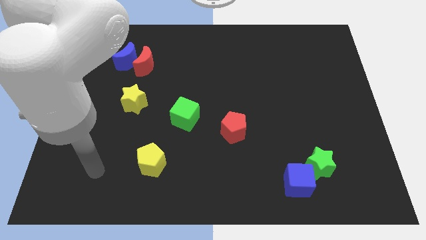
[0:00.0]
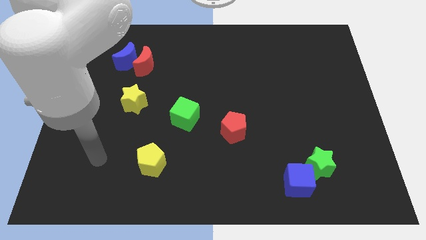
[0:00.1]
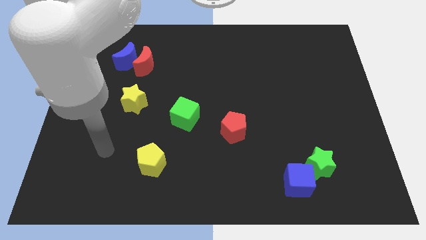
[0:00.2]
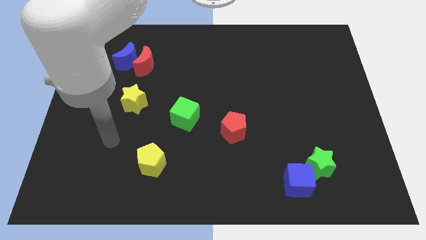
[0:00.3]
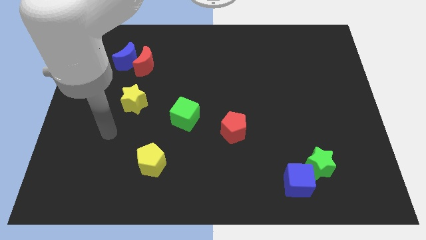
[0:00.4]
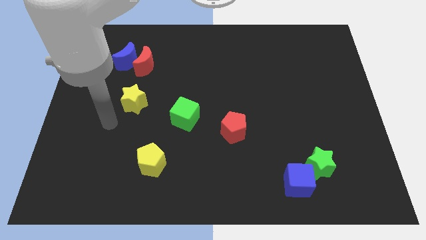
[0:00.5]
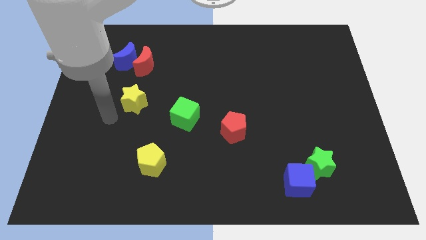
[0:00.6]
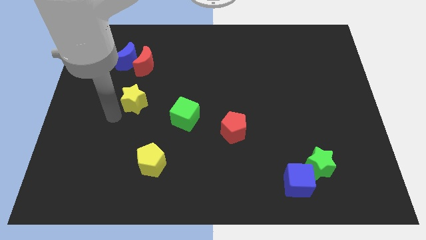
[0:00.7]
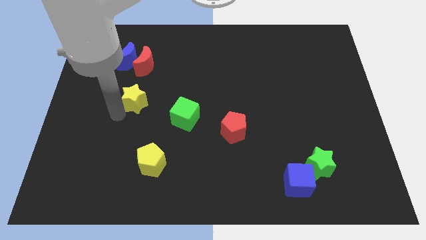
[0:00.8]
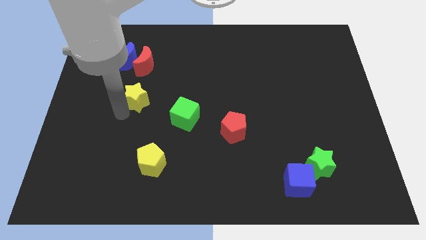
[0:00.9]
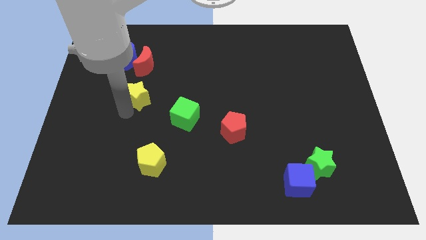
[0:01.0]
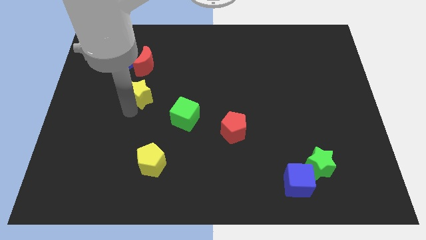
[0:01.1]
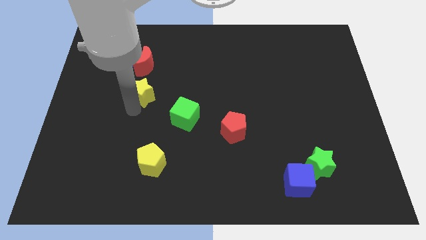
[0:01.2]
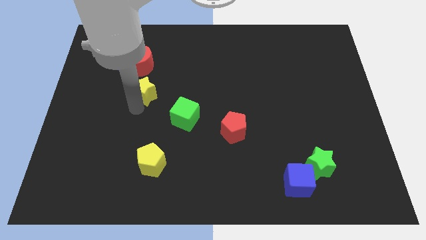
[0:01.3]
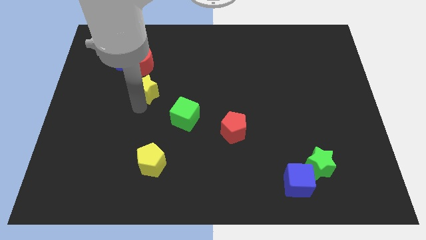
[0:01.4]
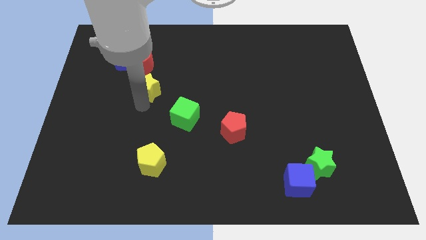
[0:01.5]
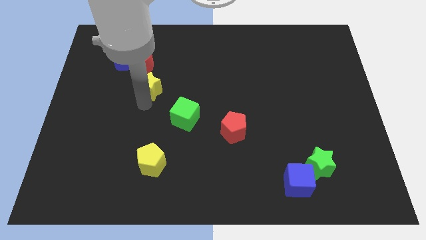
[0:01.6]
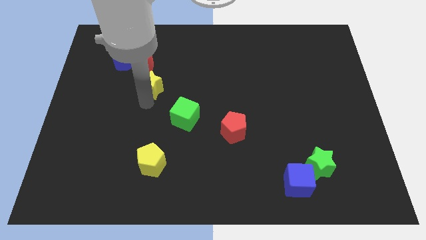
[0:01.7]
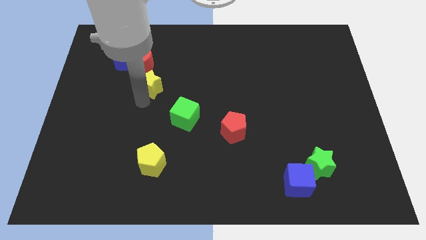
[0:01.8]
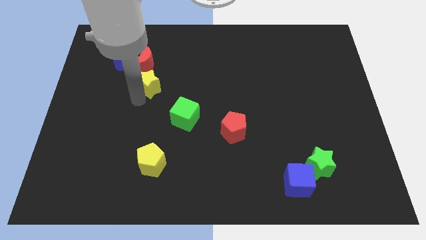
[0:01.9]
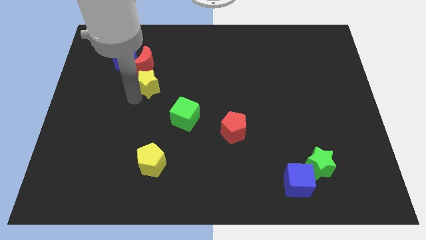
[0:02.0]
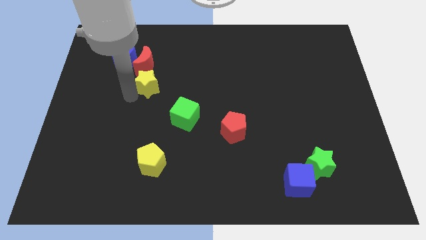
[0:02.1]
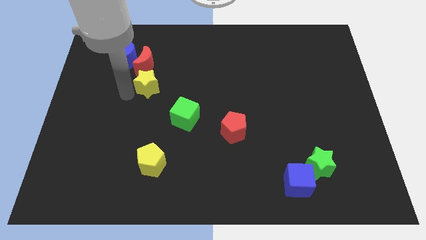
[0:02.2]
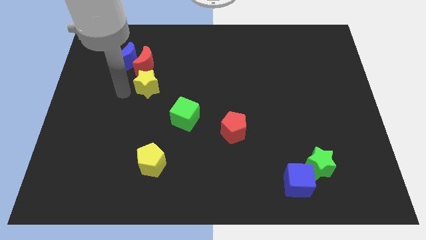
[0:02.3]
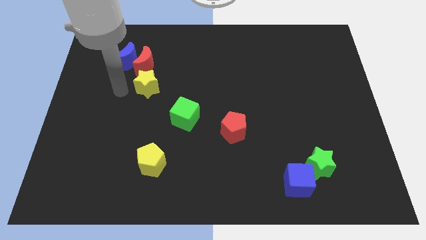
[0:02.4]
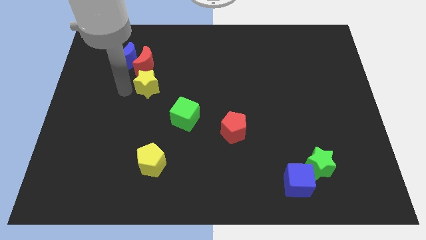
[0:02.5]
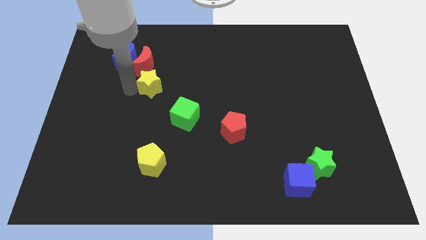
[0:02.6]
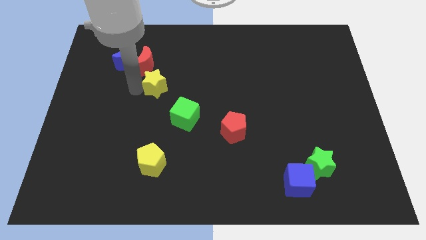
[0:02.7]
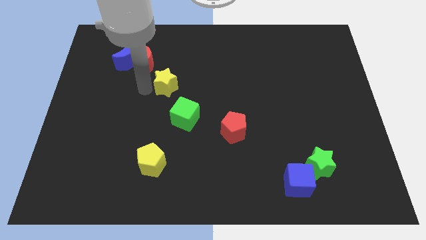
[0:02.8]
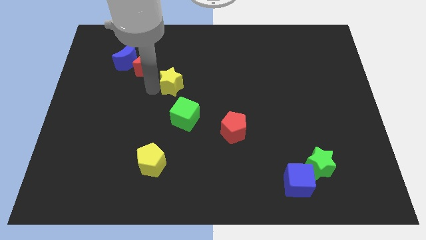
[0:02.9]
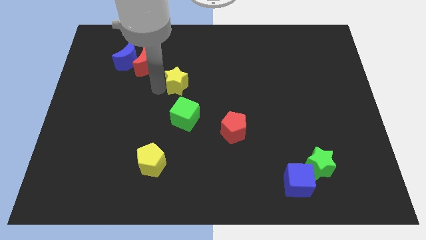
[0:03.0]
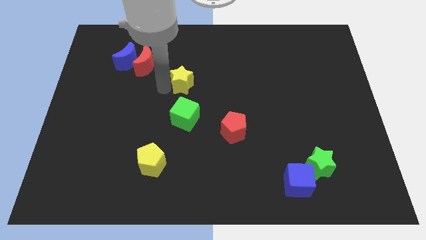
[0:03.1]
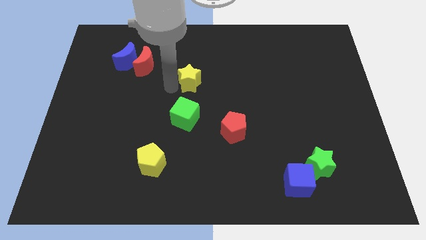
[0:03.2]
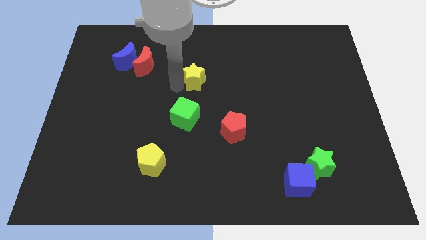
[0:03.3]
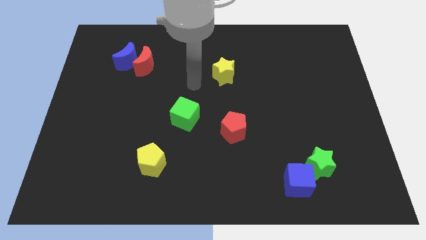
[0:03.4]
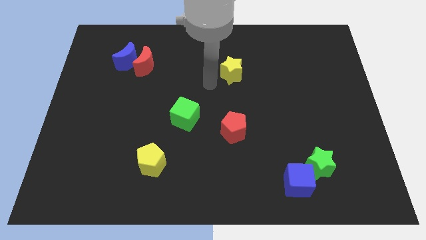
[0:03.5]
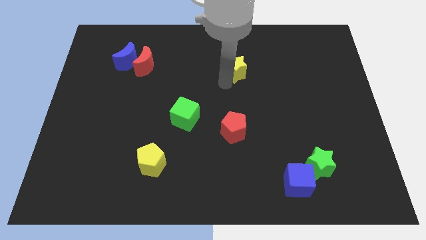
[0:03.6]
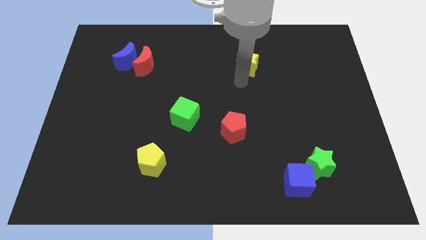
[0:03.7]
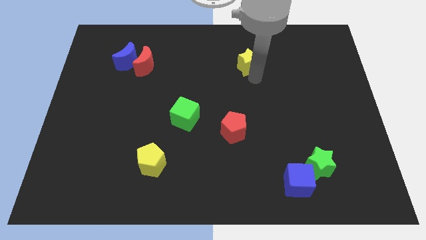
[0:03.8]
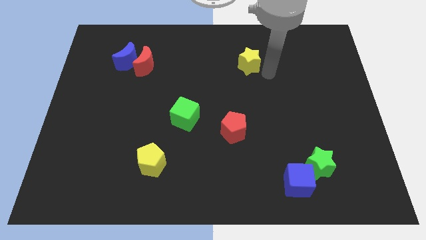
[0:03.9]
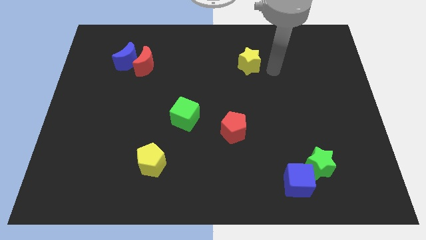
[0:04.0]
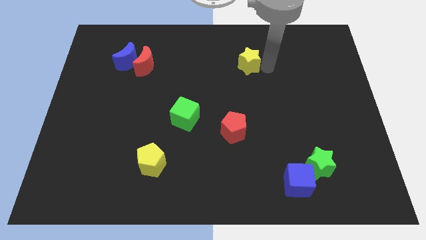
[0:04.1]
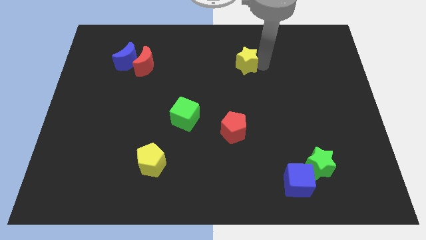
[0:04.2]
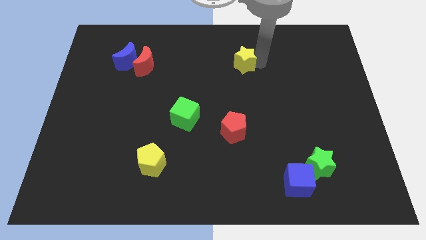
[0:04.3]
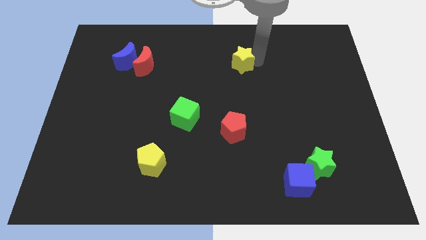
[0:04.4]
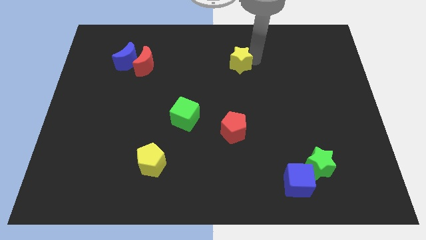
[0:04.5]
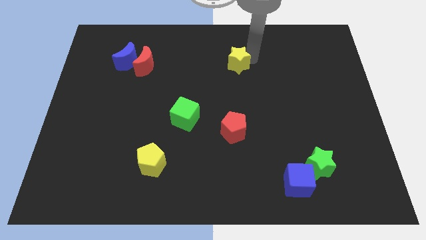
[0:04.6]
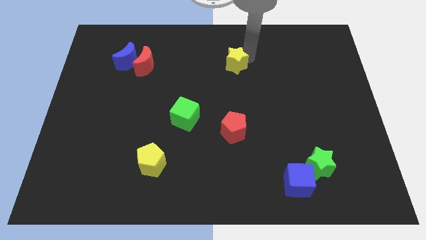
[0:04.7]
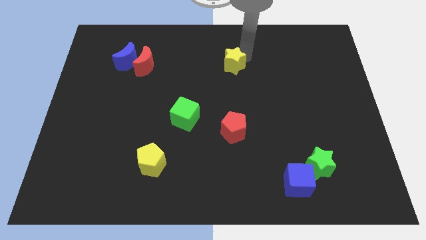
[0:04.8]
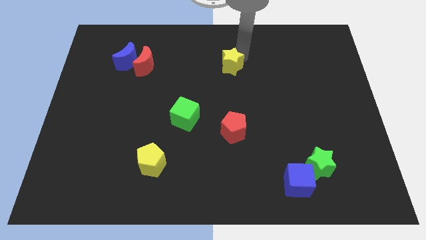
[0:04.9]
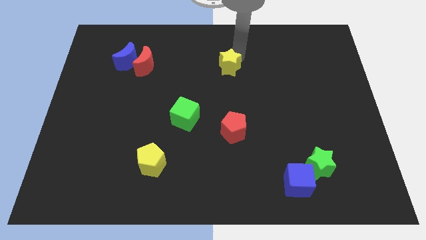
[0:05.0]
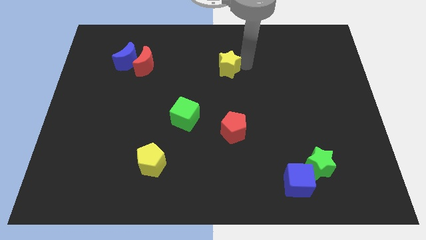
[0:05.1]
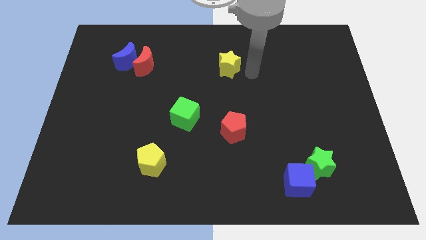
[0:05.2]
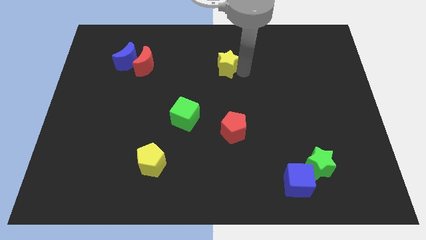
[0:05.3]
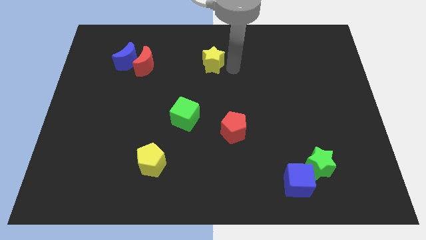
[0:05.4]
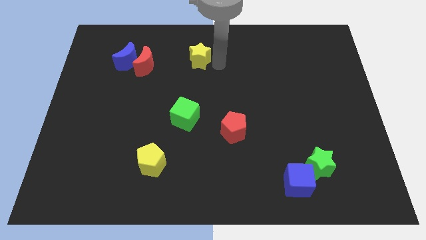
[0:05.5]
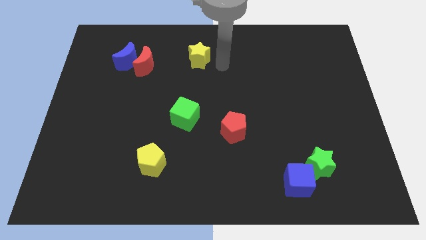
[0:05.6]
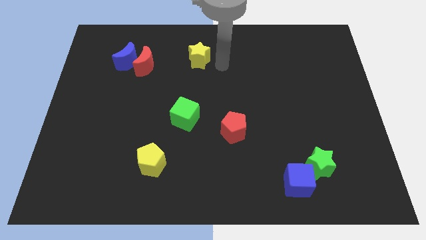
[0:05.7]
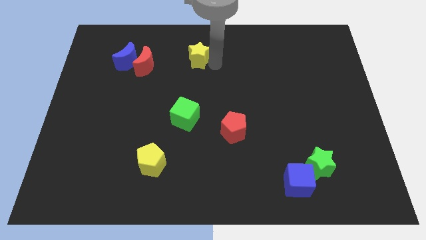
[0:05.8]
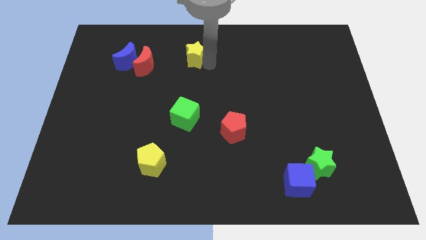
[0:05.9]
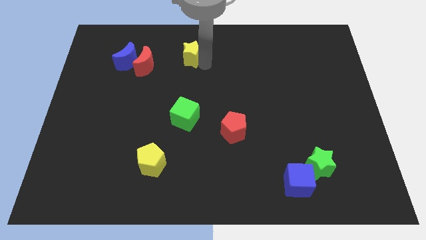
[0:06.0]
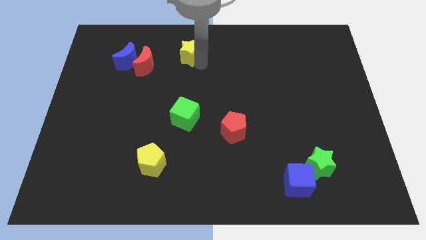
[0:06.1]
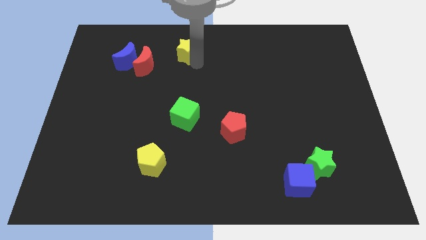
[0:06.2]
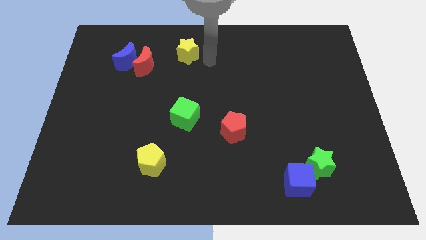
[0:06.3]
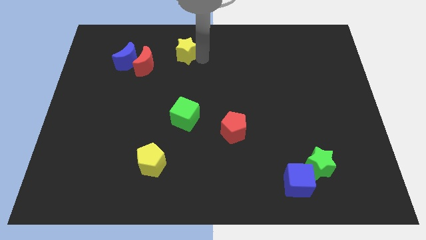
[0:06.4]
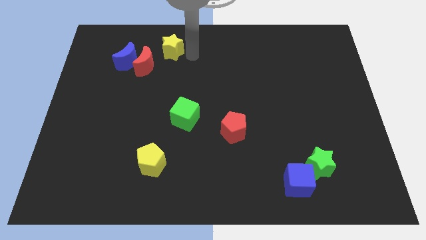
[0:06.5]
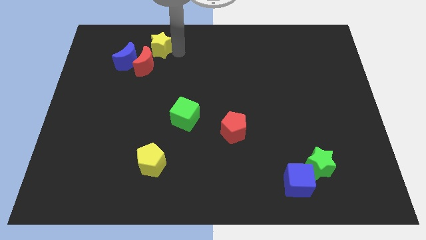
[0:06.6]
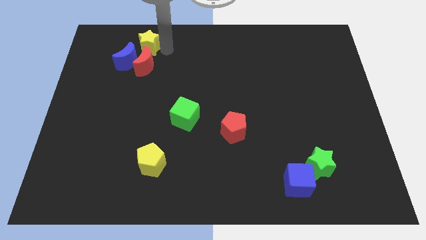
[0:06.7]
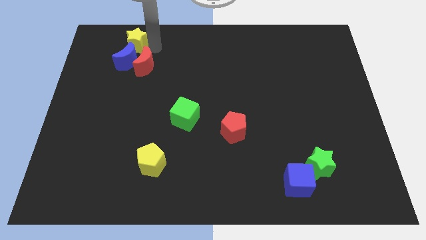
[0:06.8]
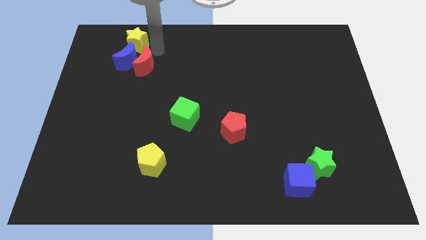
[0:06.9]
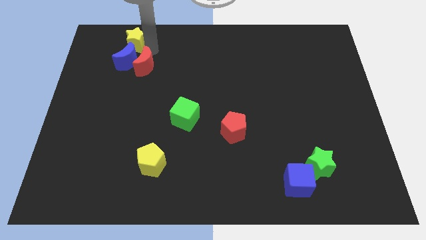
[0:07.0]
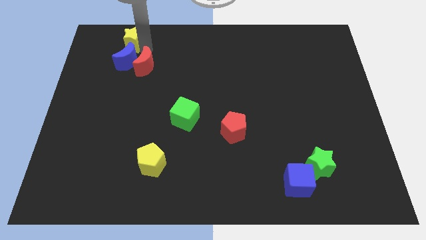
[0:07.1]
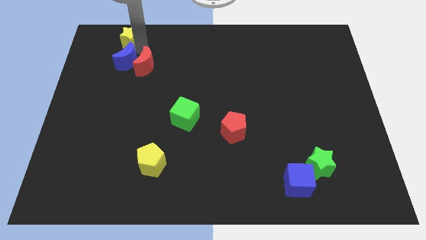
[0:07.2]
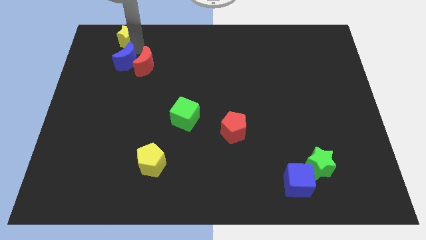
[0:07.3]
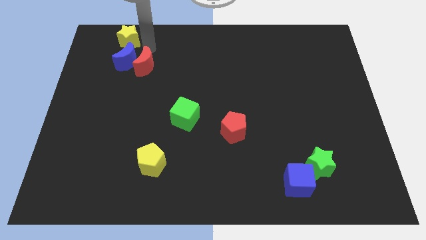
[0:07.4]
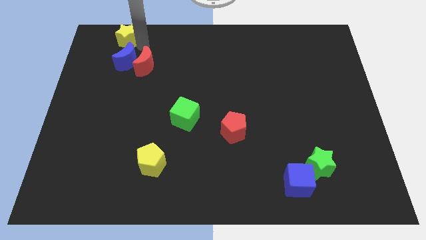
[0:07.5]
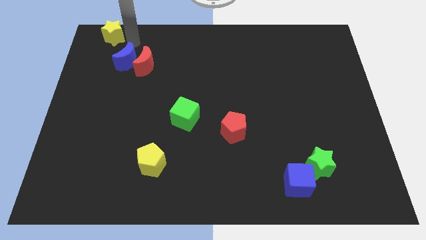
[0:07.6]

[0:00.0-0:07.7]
push the yellow star to the top left corner
